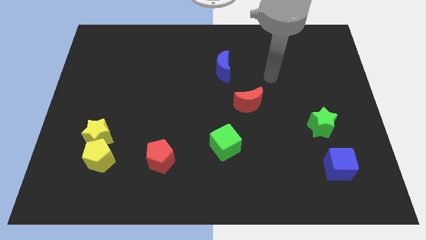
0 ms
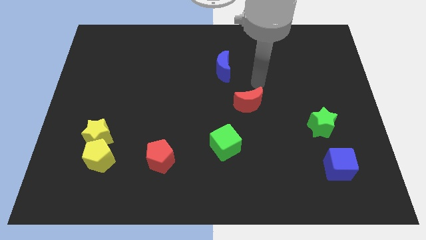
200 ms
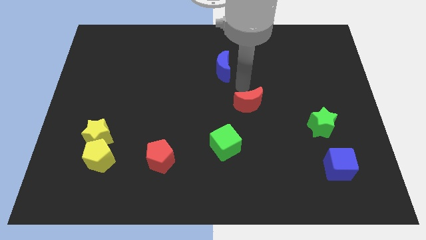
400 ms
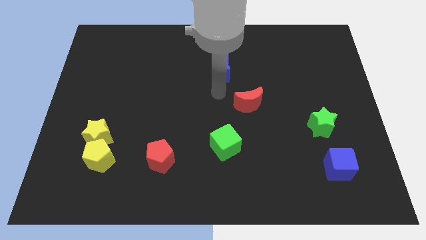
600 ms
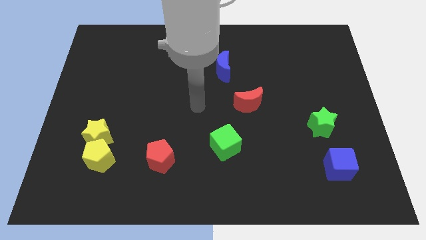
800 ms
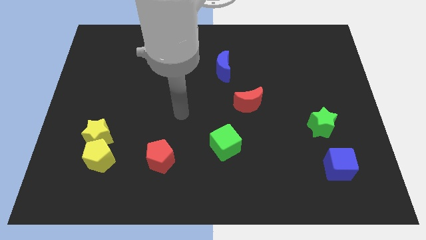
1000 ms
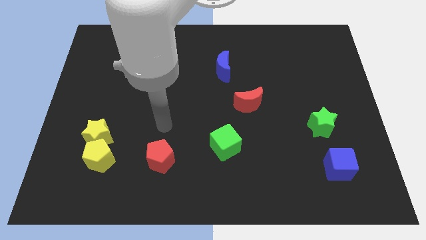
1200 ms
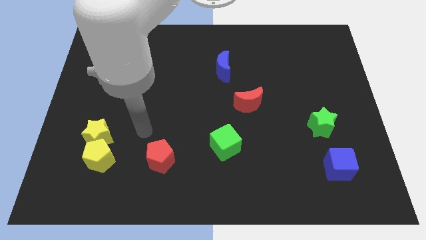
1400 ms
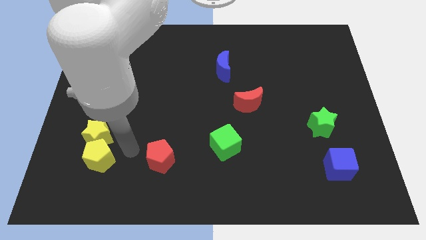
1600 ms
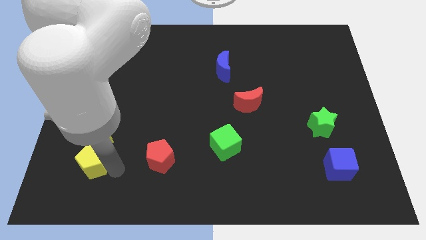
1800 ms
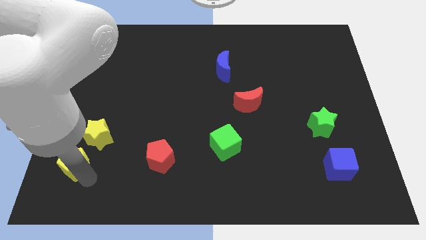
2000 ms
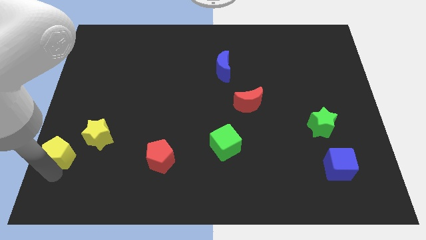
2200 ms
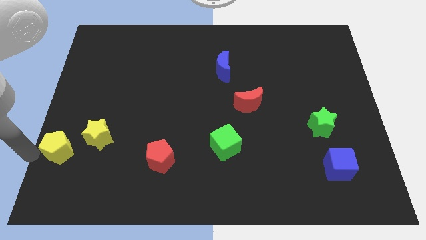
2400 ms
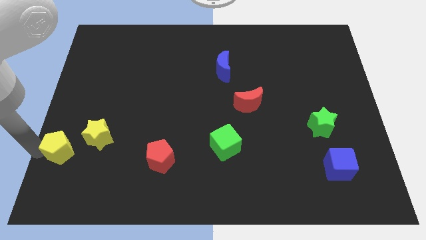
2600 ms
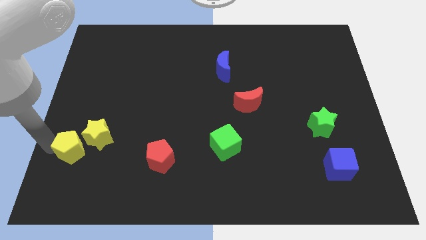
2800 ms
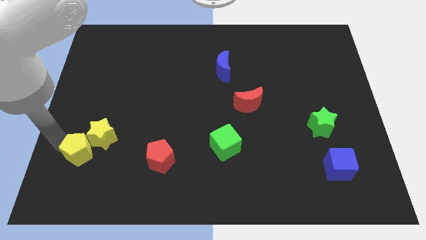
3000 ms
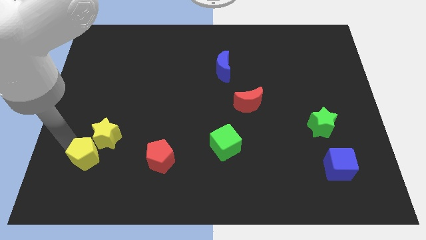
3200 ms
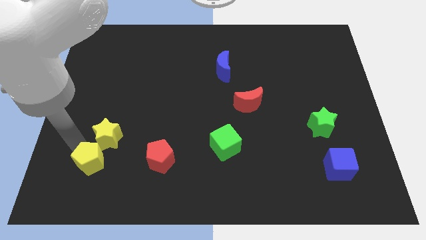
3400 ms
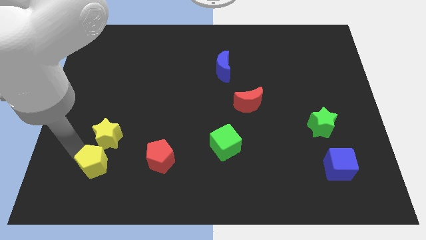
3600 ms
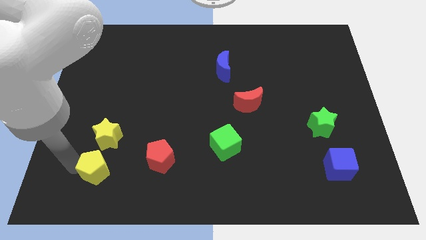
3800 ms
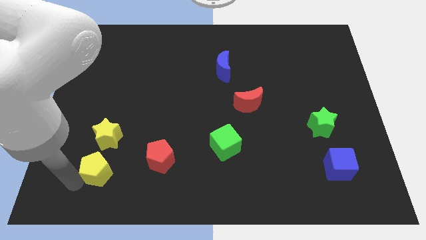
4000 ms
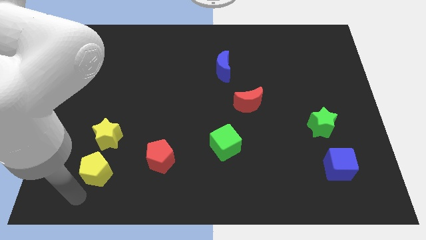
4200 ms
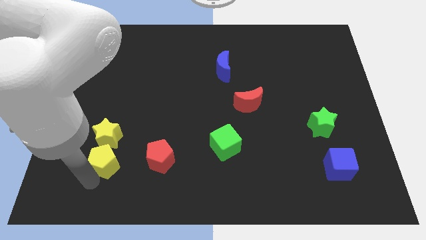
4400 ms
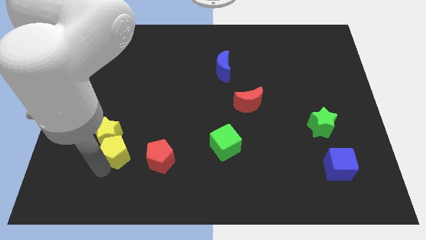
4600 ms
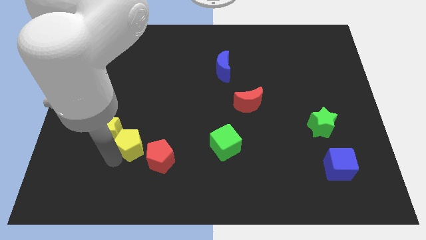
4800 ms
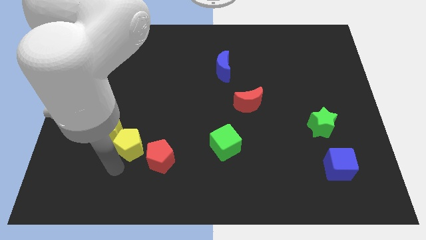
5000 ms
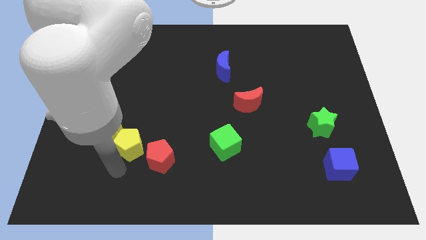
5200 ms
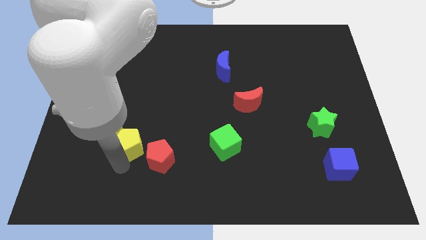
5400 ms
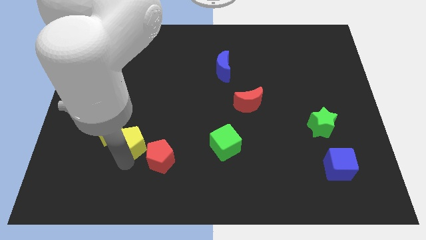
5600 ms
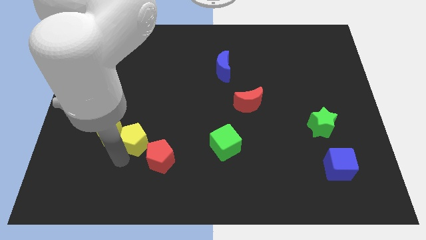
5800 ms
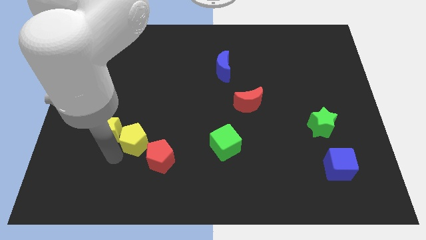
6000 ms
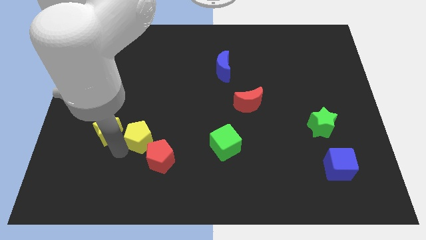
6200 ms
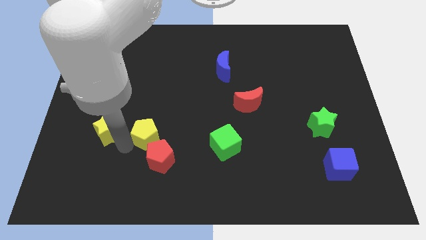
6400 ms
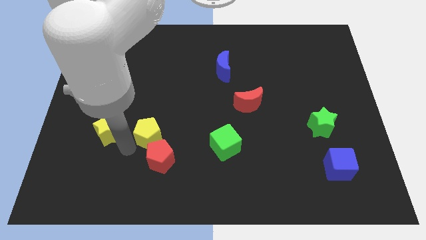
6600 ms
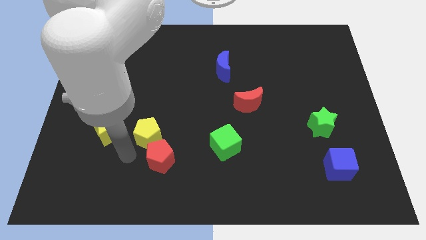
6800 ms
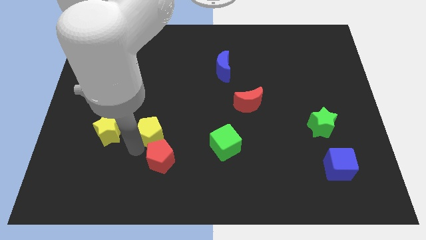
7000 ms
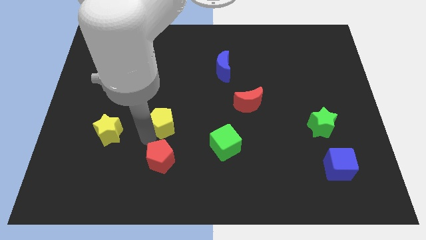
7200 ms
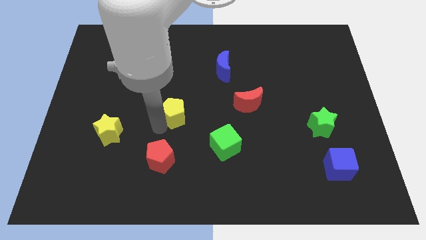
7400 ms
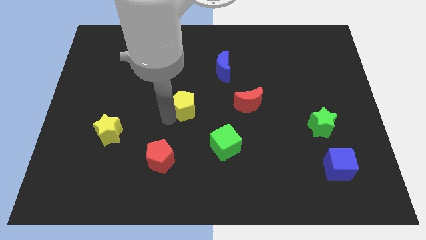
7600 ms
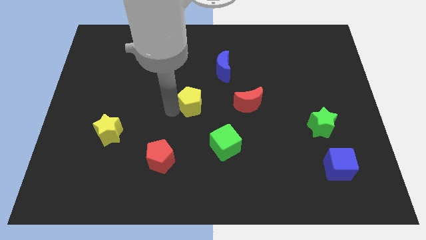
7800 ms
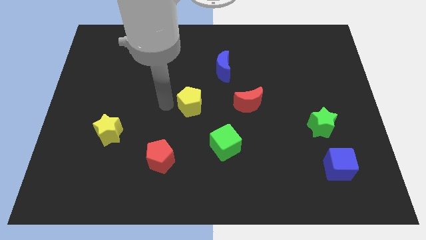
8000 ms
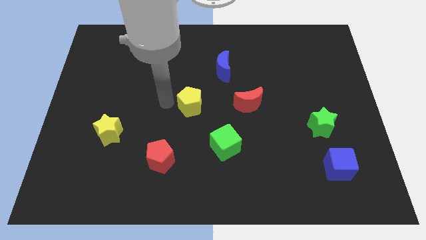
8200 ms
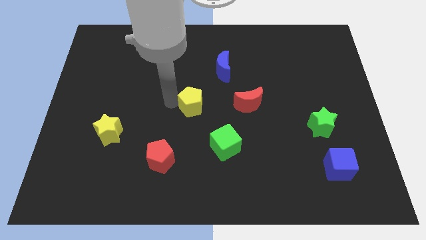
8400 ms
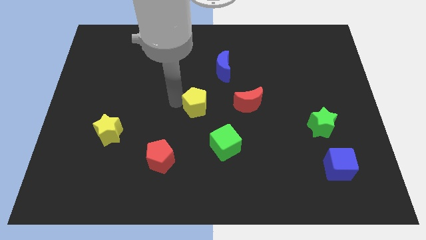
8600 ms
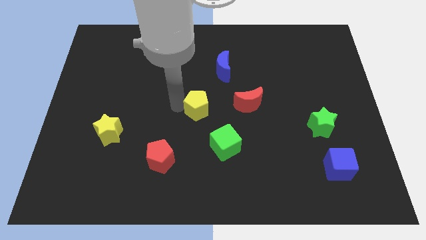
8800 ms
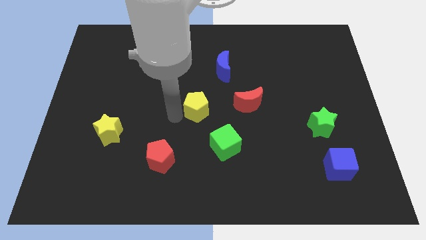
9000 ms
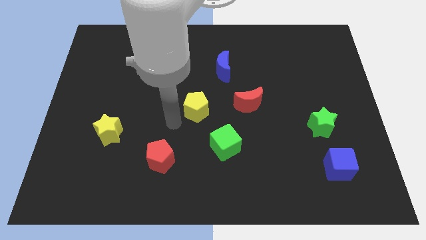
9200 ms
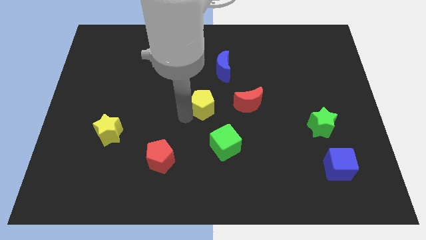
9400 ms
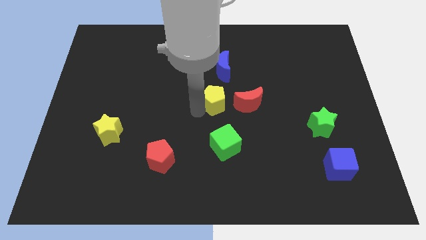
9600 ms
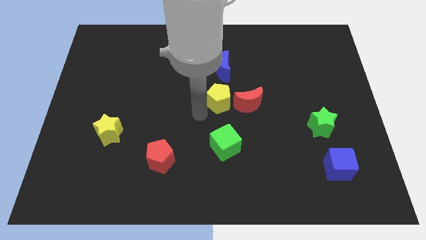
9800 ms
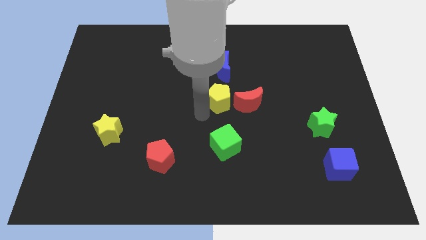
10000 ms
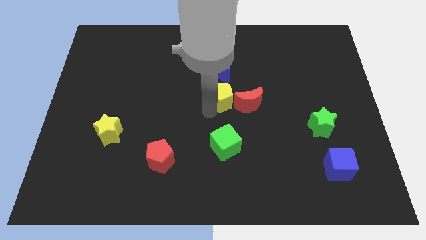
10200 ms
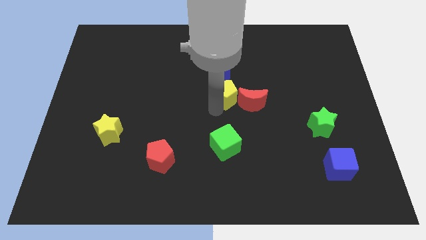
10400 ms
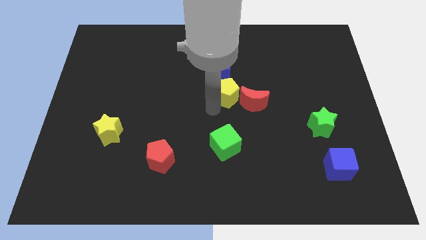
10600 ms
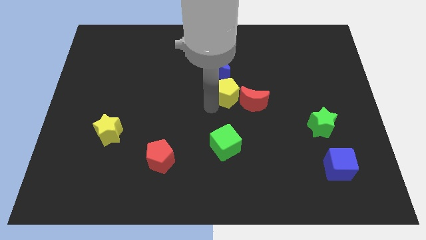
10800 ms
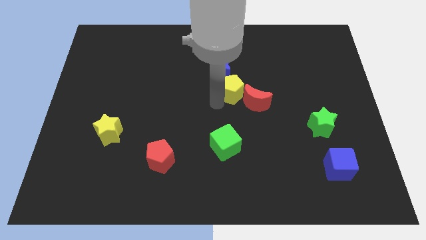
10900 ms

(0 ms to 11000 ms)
push the yellow pentagon diagonally down and to the right of the blue moon

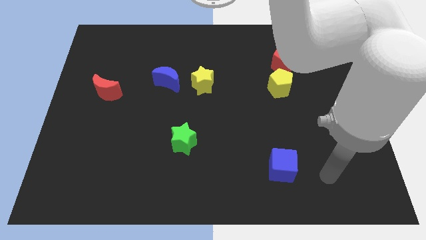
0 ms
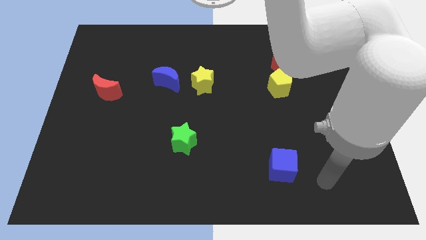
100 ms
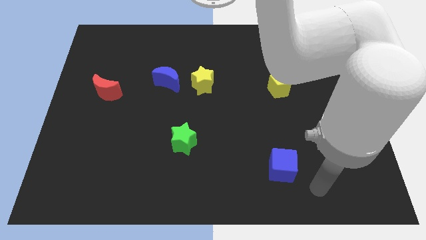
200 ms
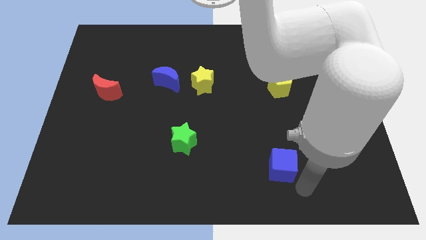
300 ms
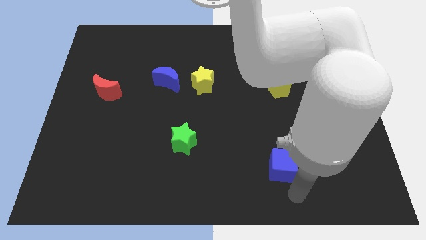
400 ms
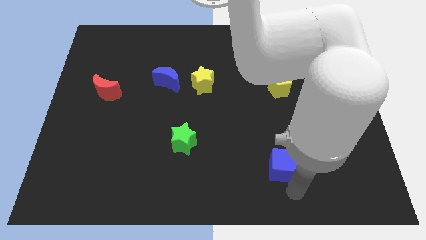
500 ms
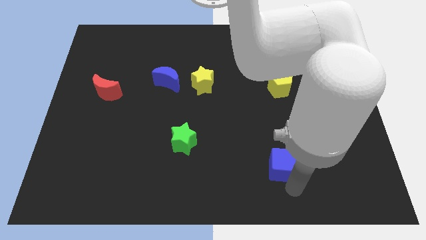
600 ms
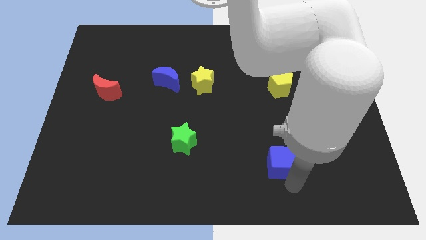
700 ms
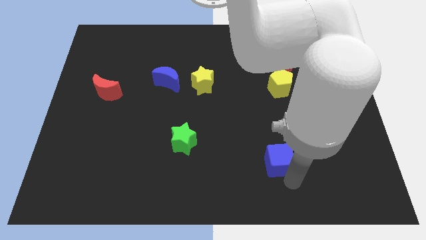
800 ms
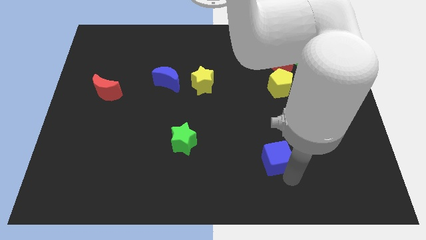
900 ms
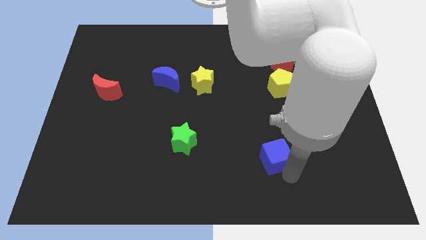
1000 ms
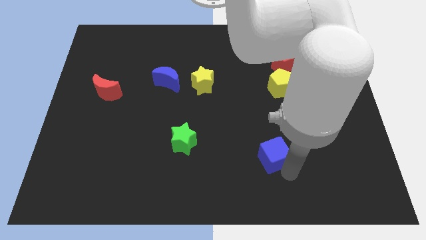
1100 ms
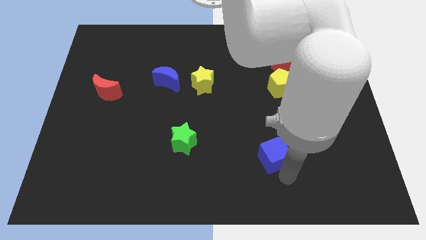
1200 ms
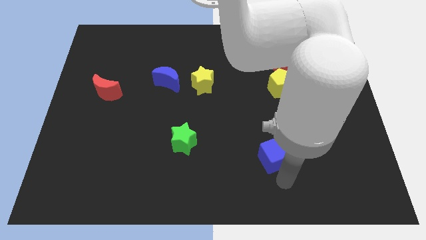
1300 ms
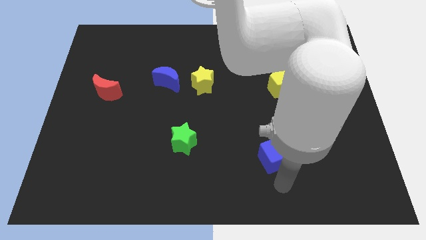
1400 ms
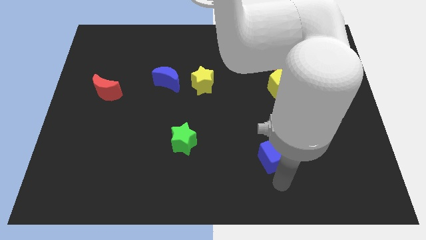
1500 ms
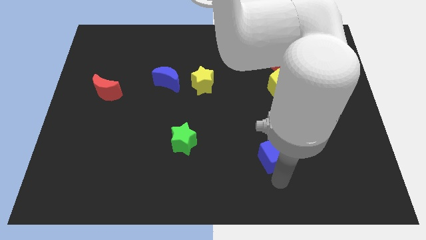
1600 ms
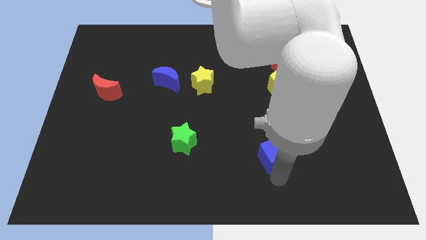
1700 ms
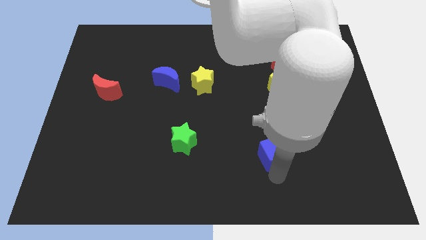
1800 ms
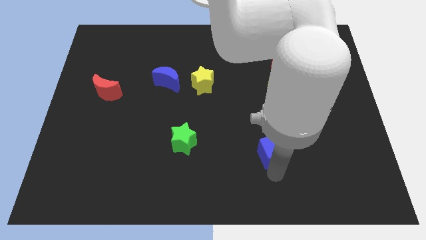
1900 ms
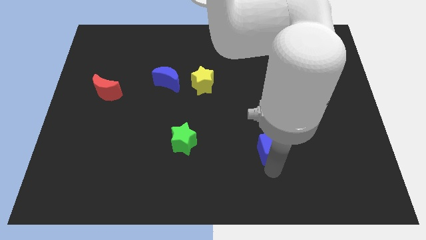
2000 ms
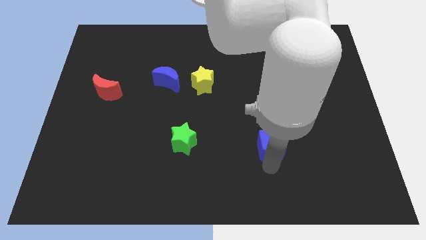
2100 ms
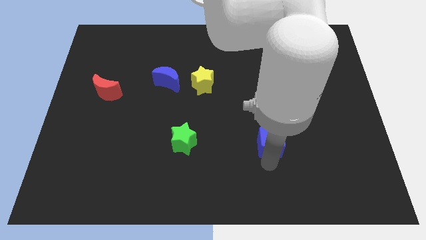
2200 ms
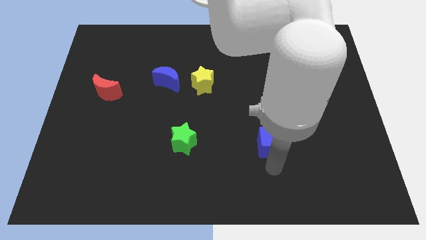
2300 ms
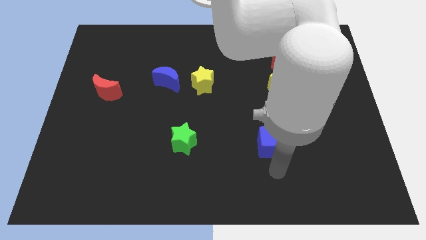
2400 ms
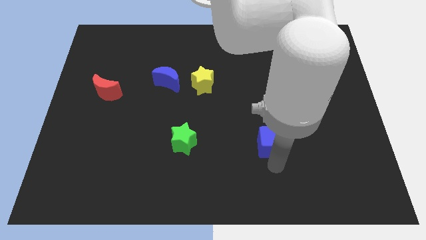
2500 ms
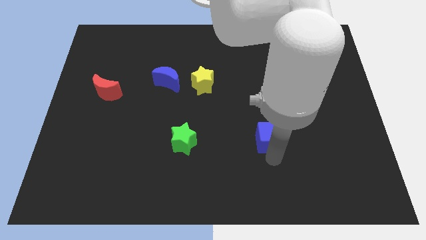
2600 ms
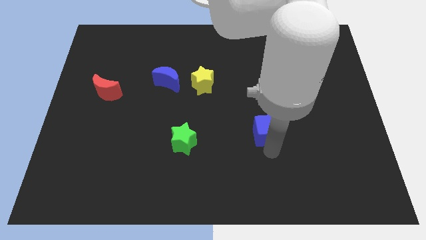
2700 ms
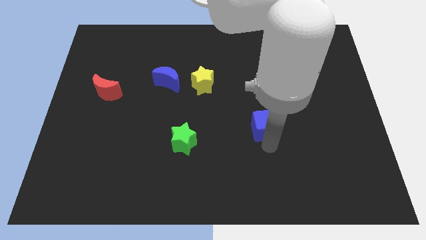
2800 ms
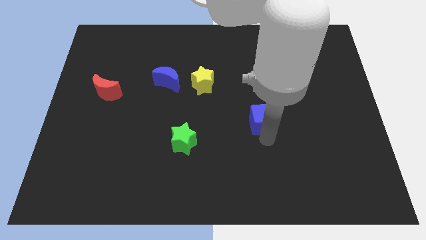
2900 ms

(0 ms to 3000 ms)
push the blue cube to the bottom left of the yellow pentagon
